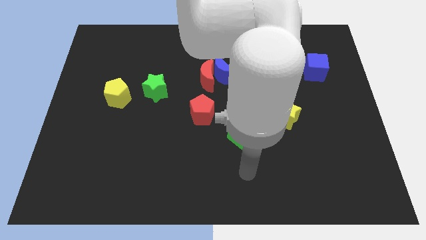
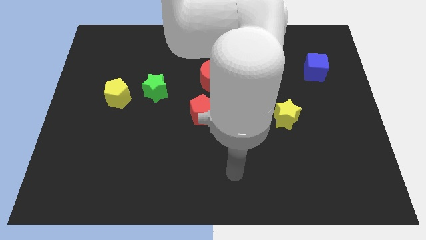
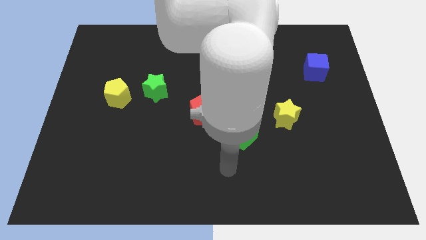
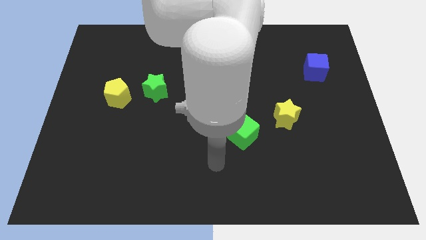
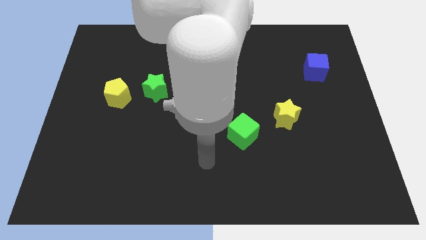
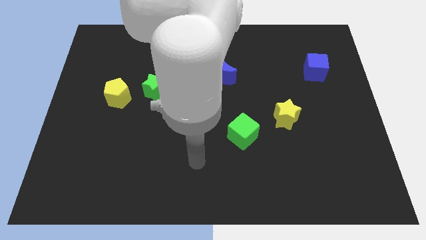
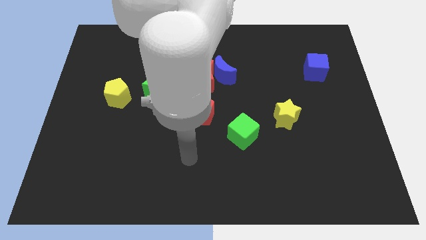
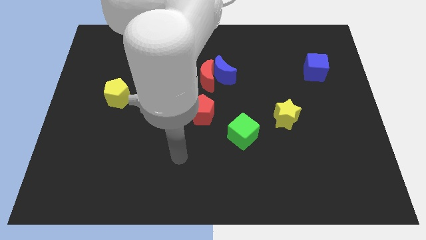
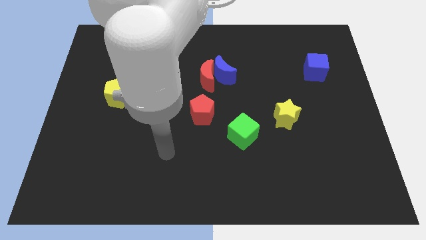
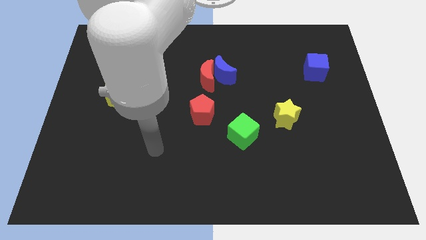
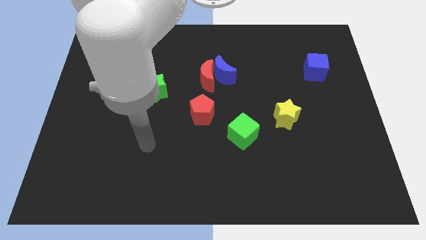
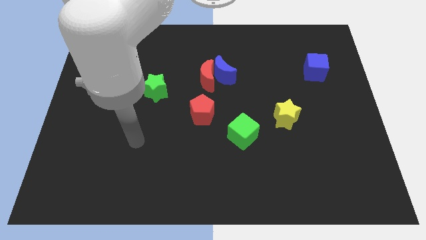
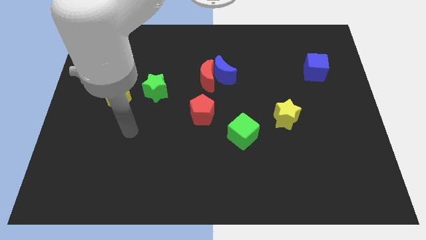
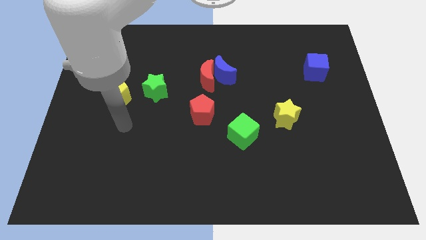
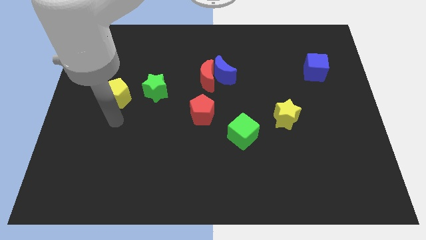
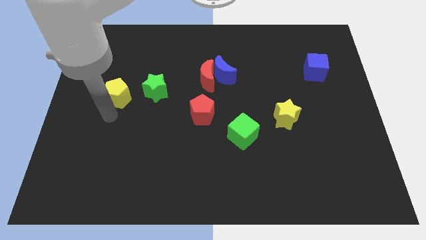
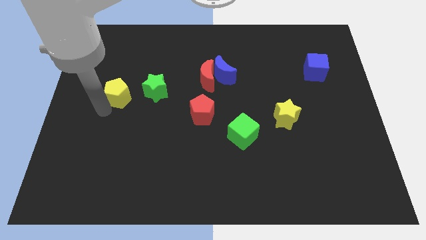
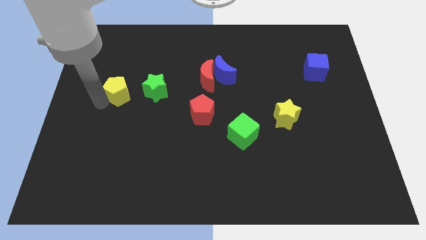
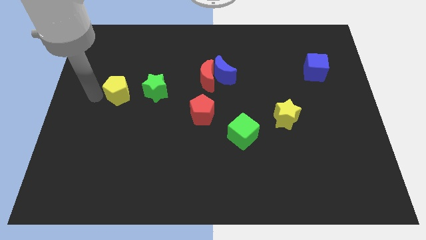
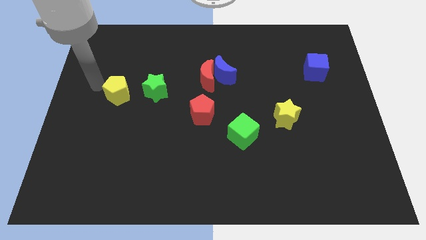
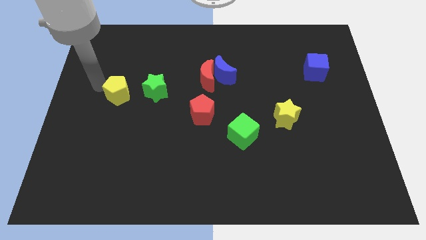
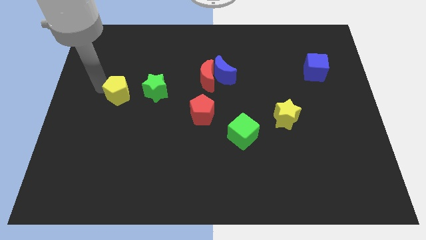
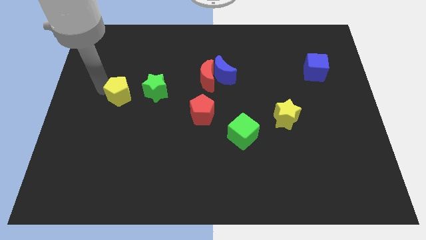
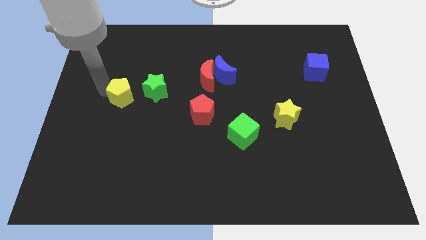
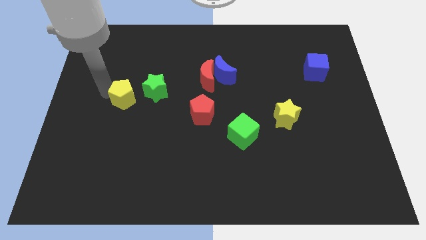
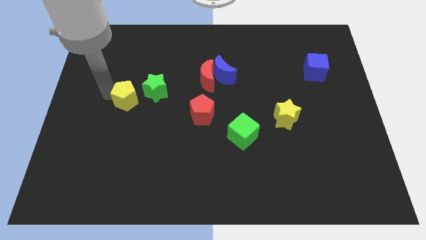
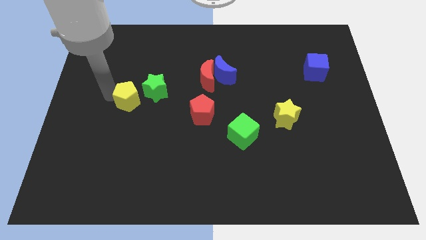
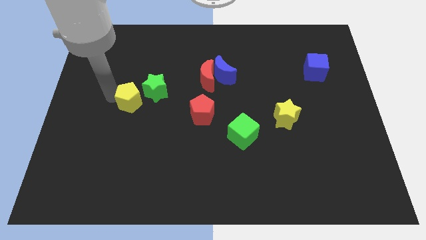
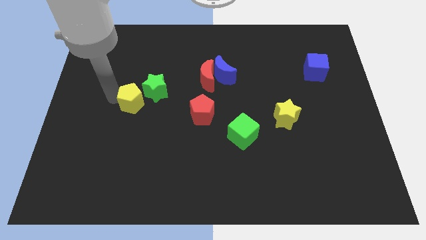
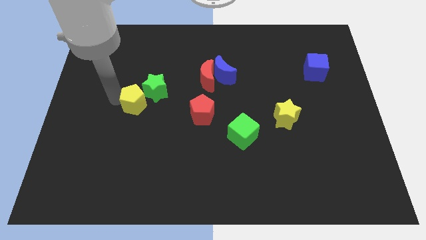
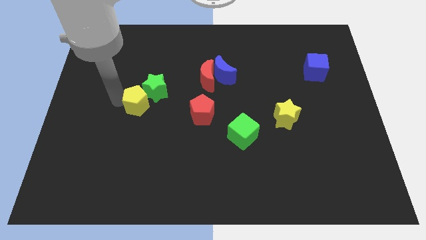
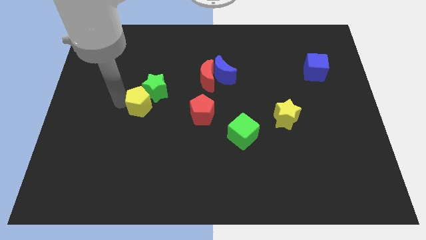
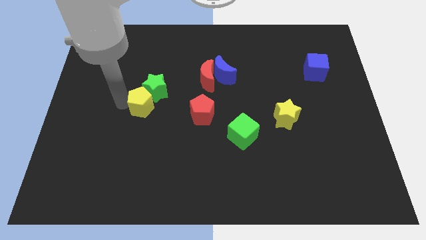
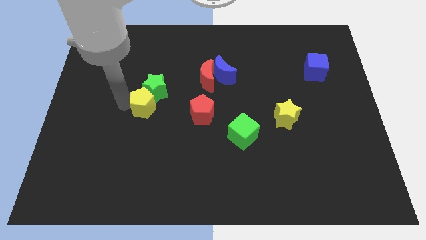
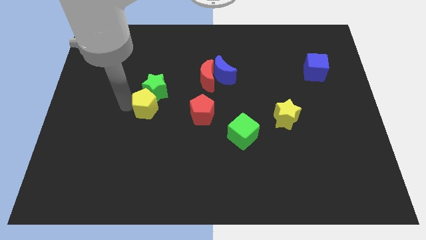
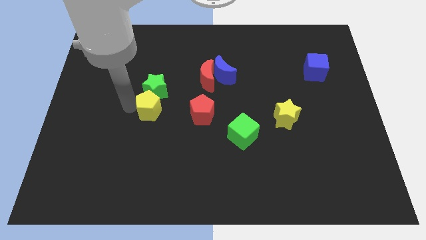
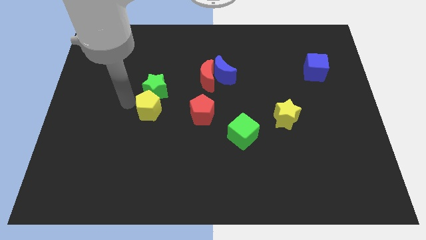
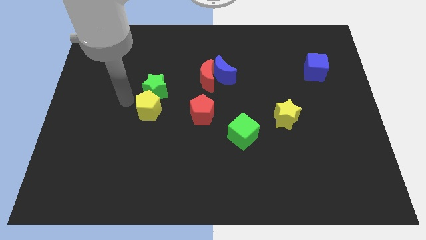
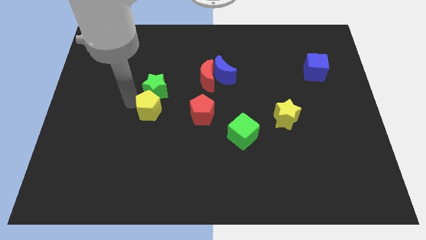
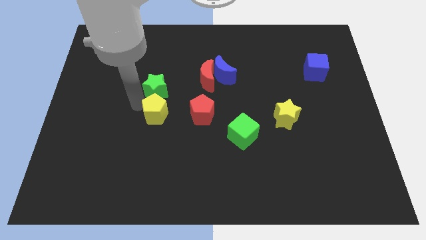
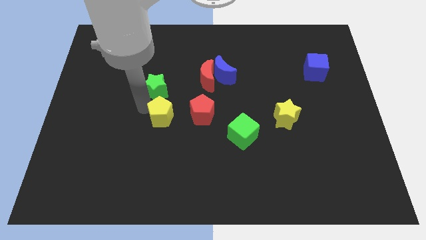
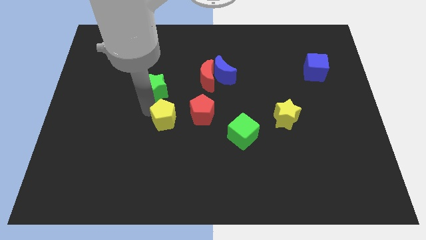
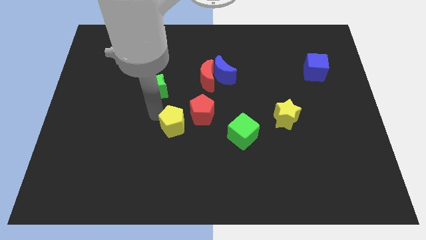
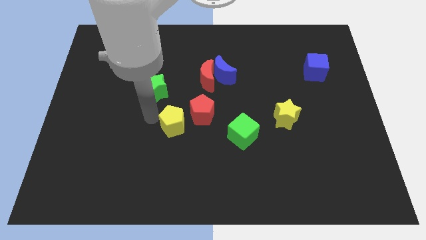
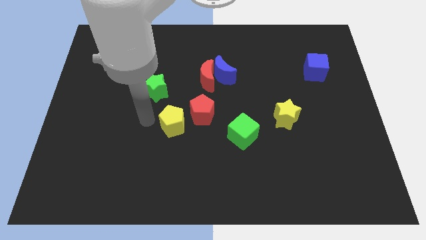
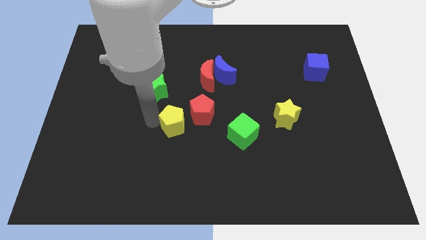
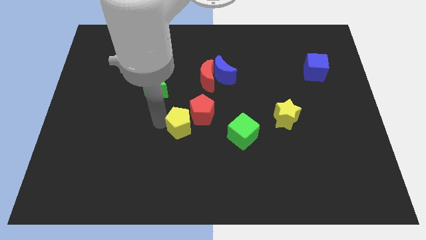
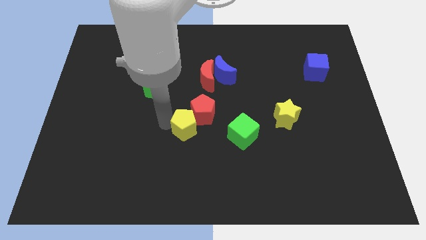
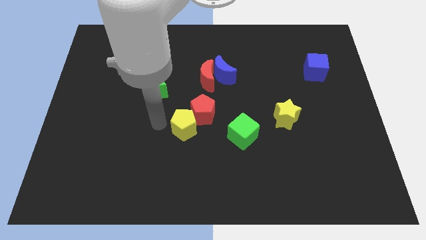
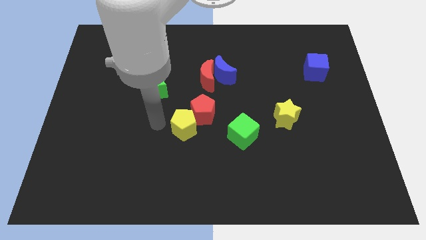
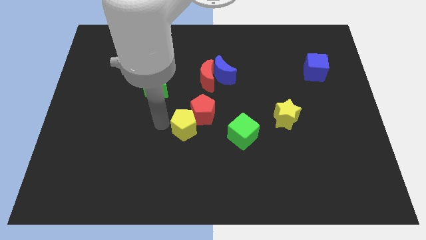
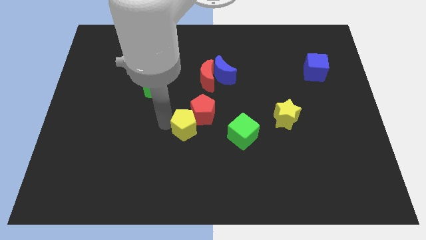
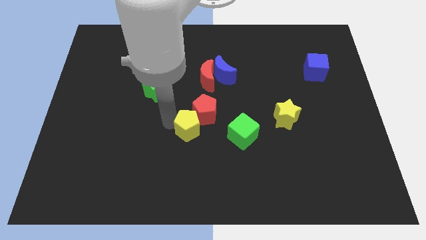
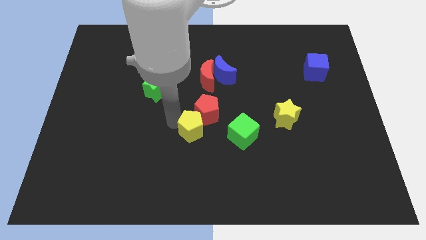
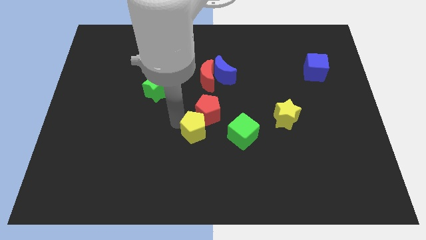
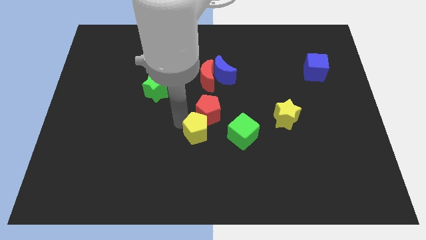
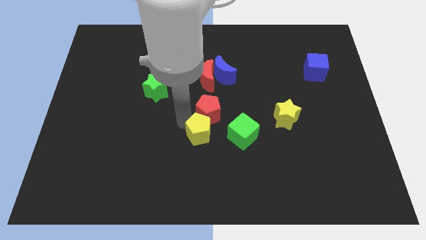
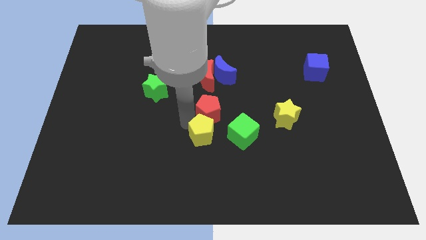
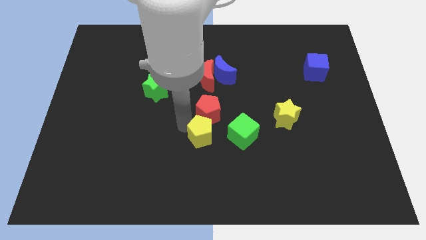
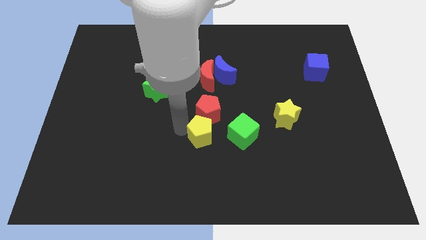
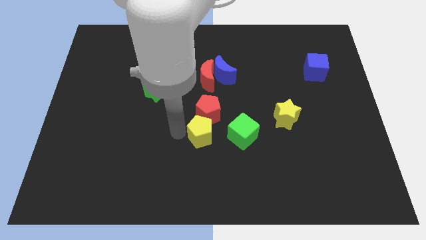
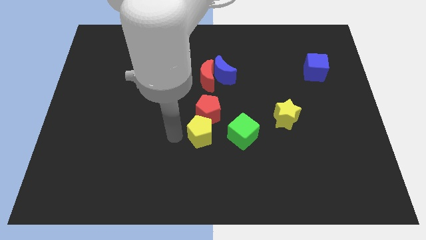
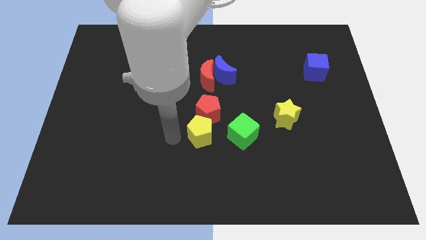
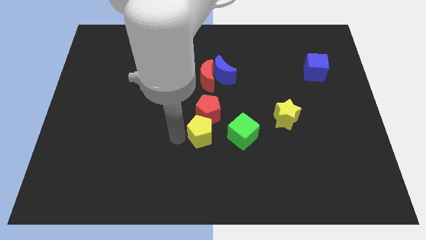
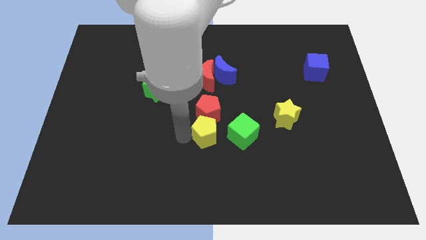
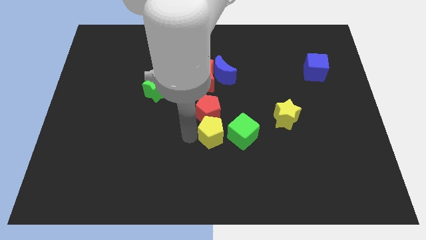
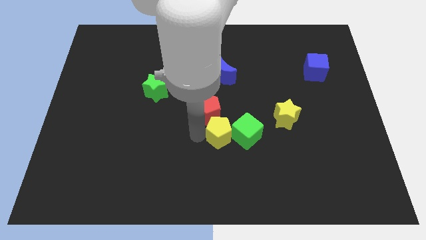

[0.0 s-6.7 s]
put the yellow pentagon close to the green cube
